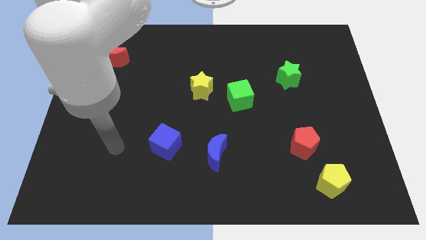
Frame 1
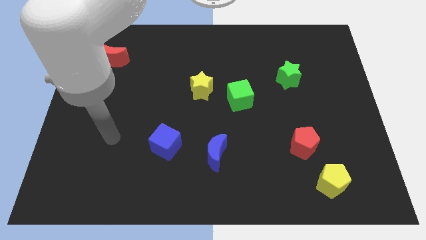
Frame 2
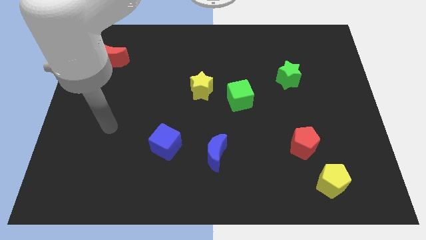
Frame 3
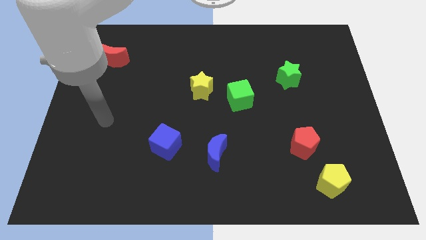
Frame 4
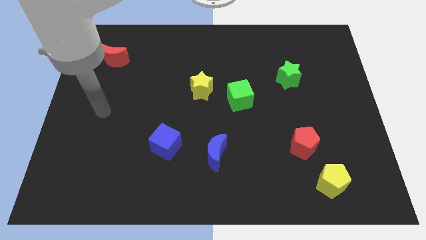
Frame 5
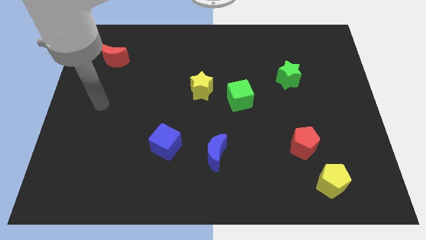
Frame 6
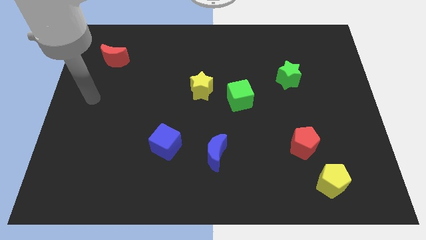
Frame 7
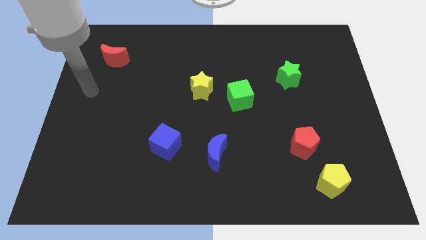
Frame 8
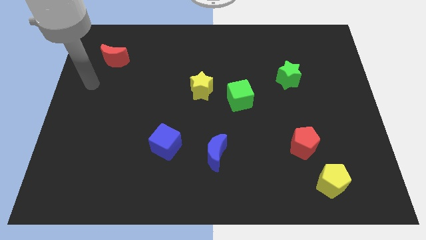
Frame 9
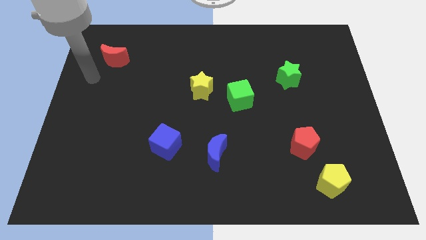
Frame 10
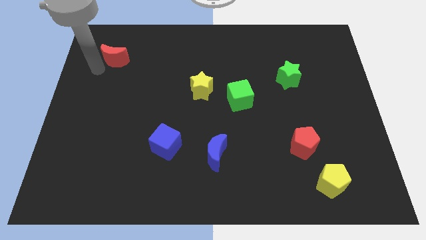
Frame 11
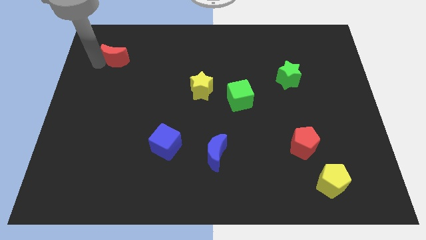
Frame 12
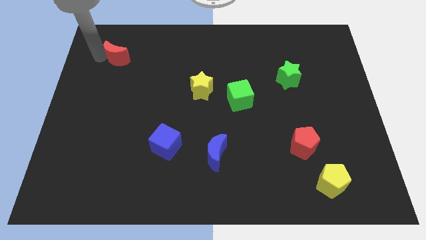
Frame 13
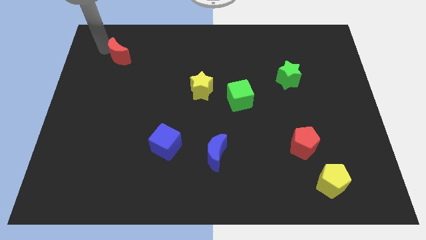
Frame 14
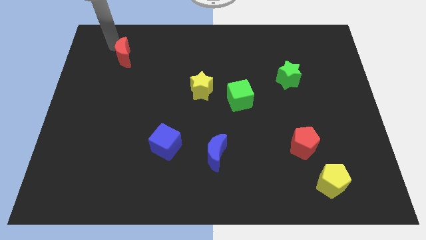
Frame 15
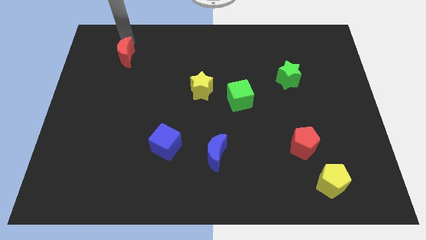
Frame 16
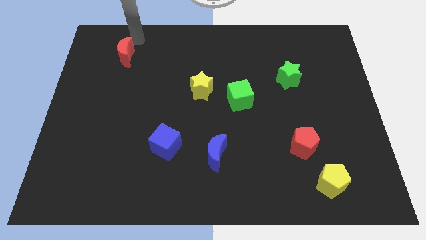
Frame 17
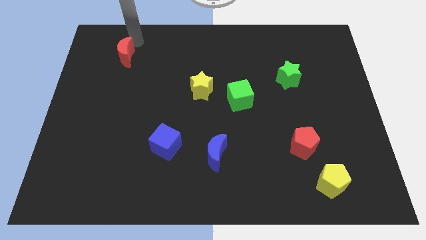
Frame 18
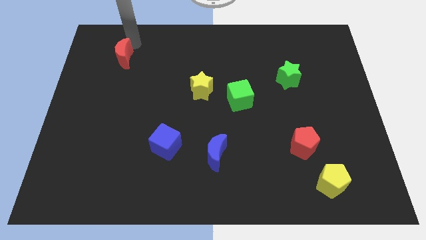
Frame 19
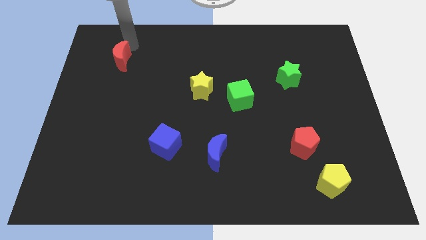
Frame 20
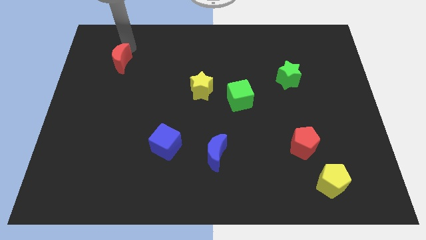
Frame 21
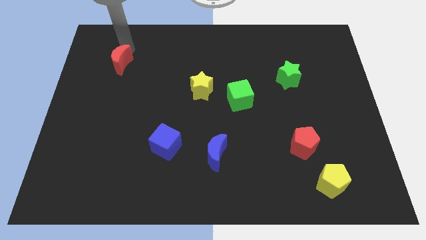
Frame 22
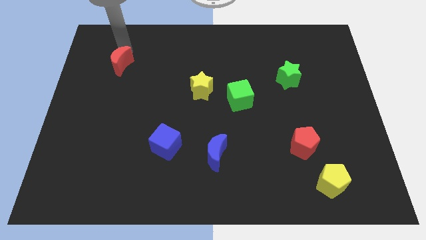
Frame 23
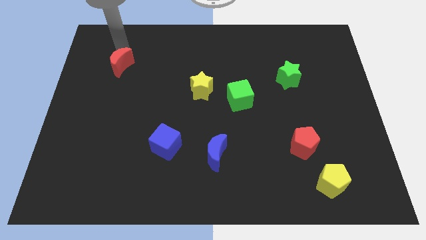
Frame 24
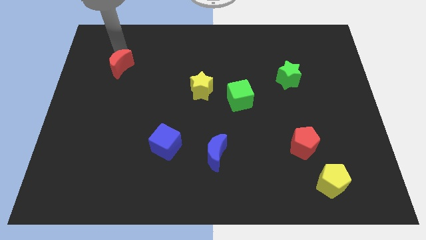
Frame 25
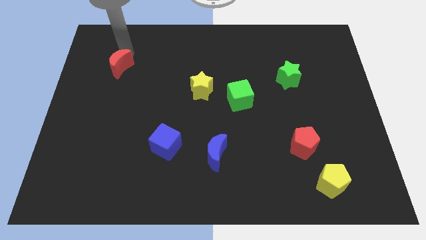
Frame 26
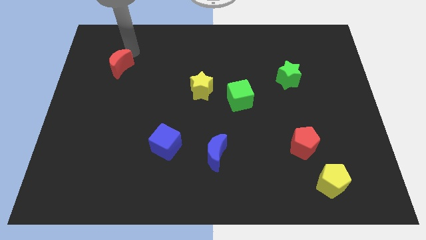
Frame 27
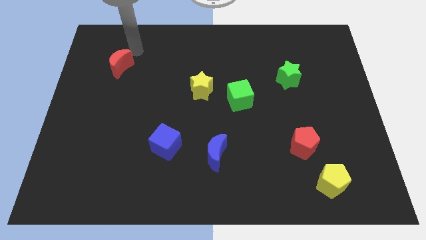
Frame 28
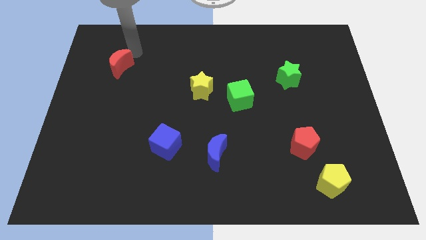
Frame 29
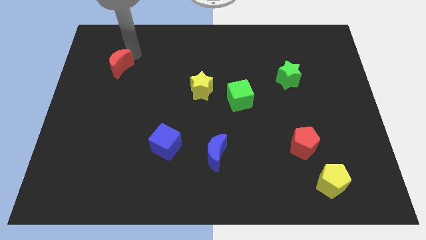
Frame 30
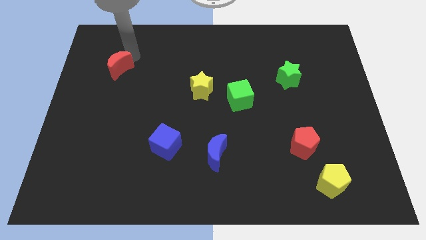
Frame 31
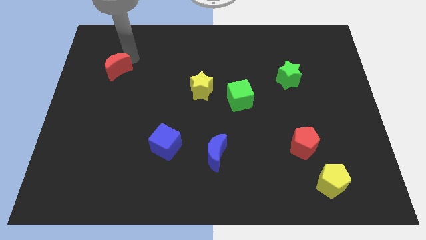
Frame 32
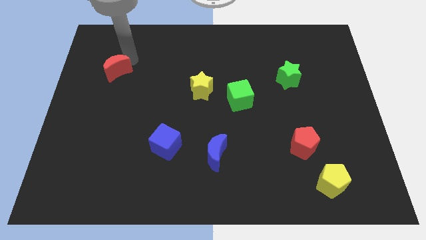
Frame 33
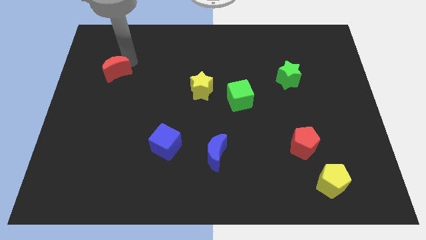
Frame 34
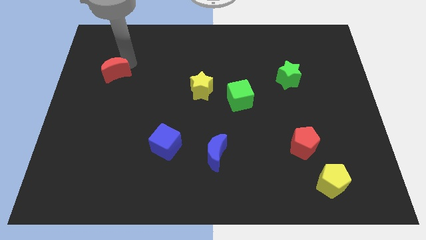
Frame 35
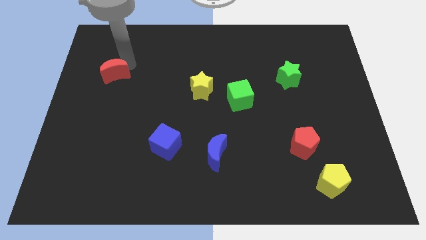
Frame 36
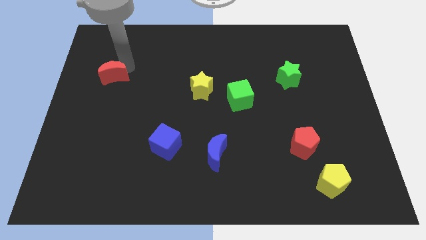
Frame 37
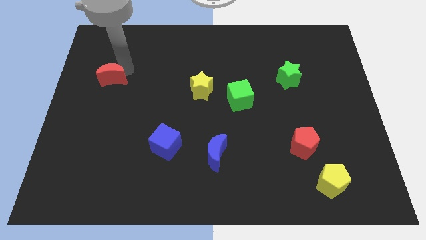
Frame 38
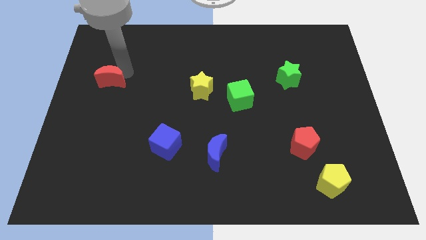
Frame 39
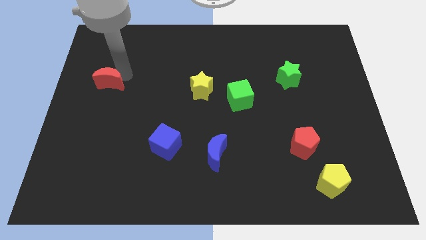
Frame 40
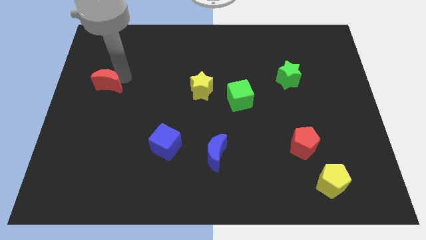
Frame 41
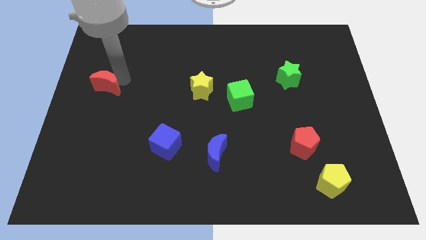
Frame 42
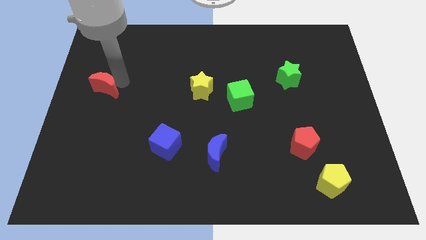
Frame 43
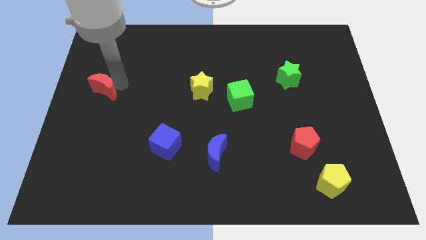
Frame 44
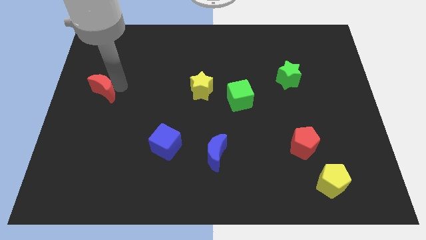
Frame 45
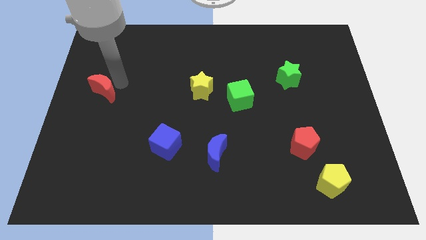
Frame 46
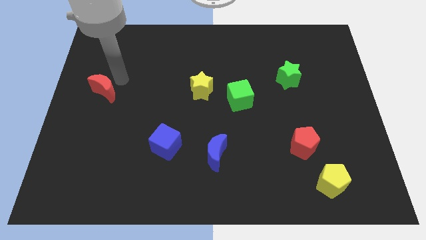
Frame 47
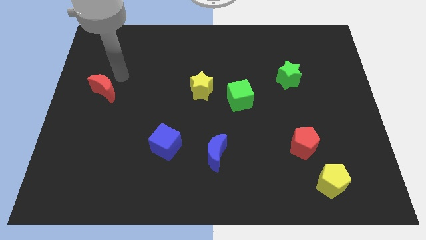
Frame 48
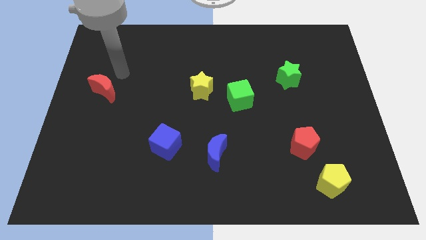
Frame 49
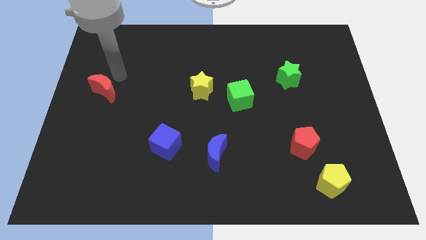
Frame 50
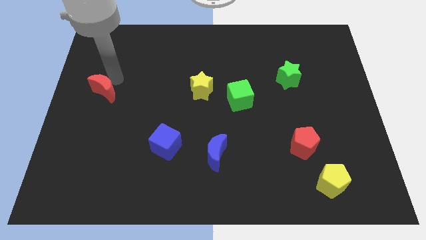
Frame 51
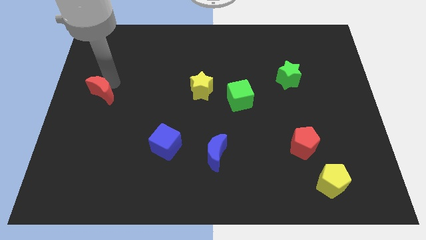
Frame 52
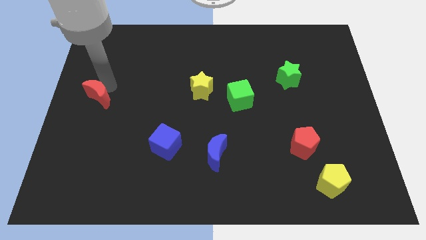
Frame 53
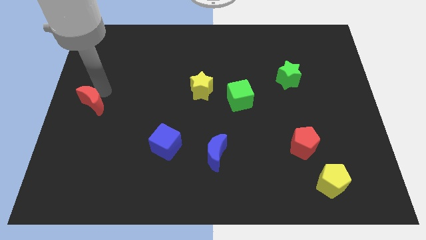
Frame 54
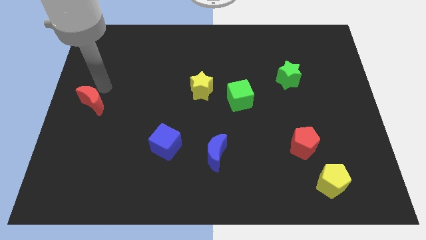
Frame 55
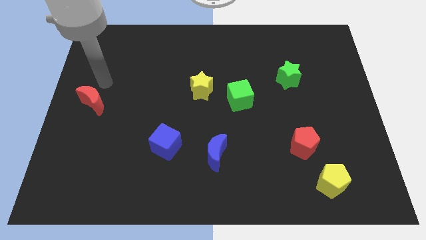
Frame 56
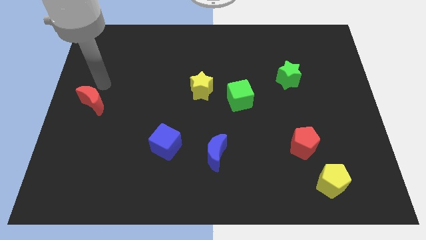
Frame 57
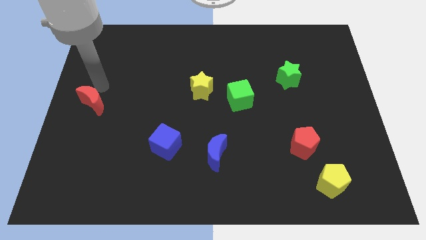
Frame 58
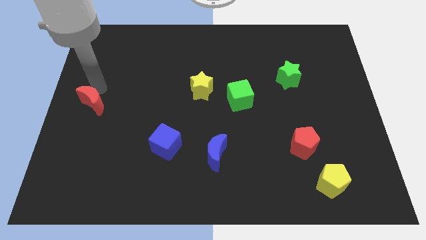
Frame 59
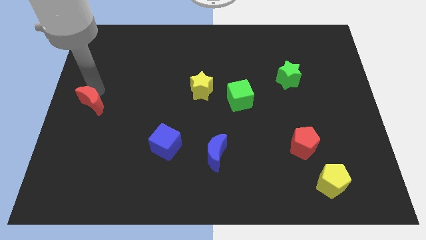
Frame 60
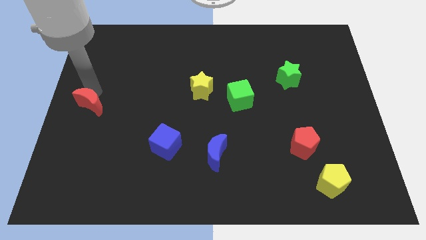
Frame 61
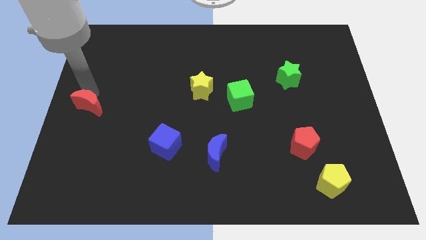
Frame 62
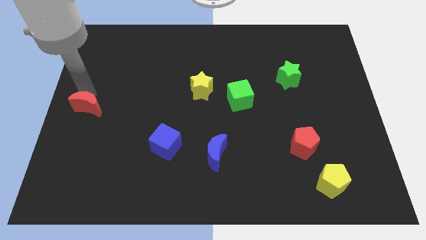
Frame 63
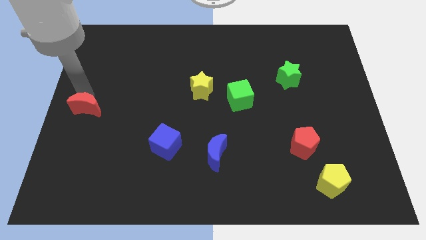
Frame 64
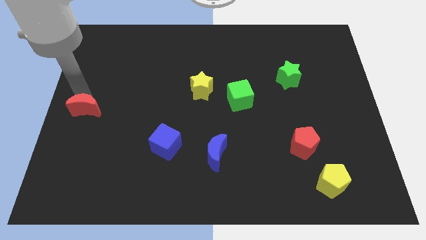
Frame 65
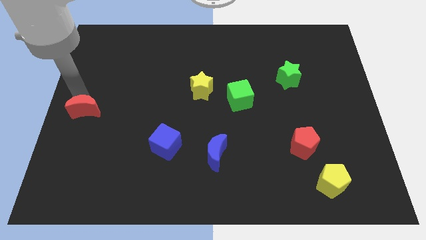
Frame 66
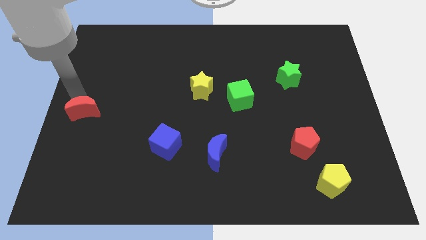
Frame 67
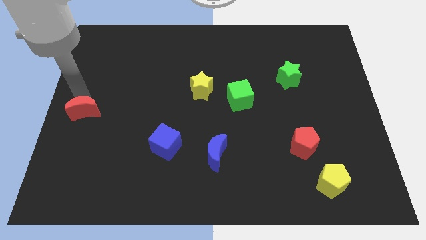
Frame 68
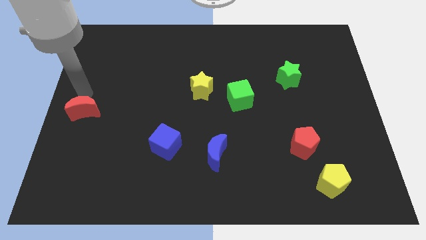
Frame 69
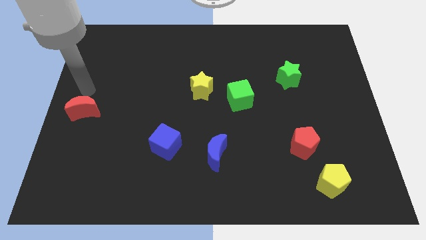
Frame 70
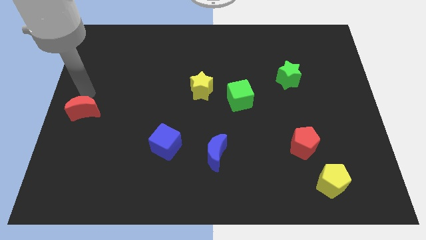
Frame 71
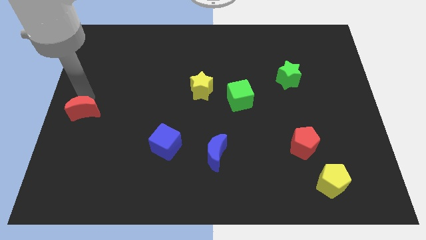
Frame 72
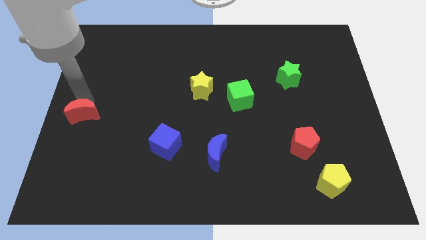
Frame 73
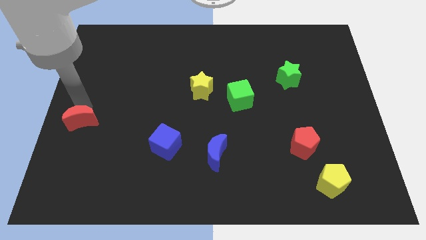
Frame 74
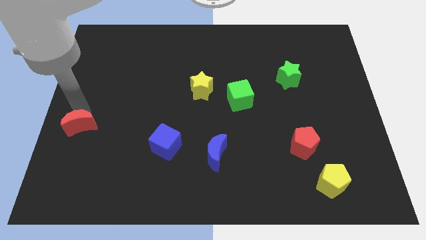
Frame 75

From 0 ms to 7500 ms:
push the red moon down

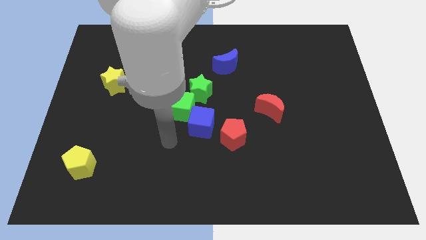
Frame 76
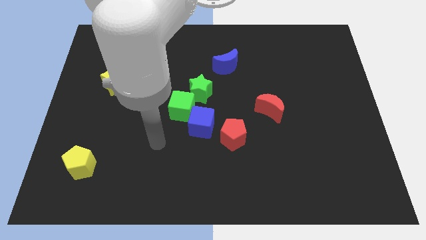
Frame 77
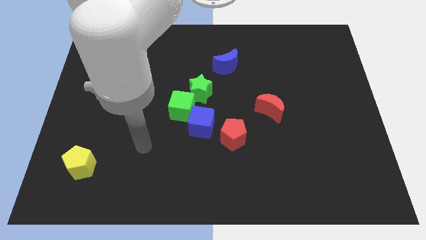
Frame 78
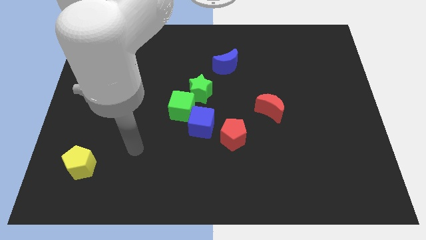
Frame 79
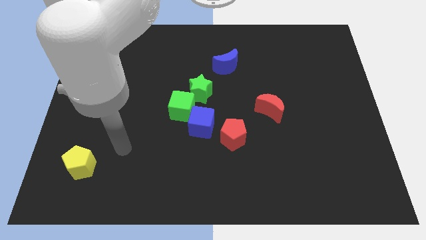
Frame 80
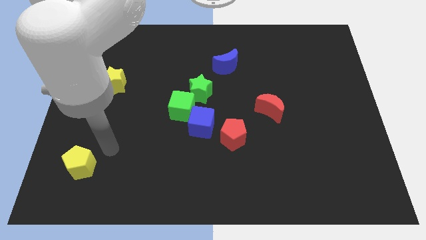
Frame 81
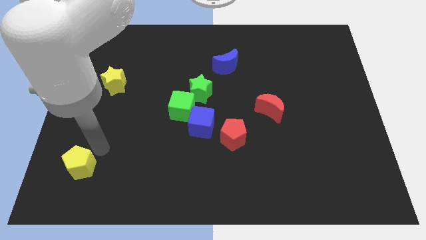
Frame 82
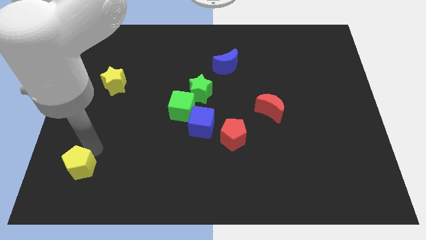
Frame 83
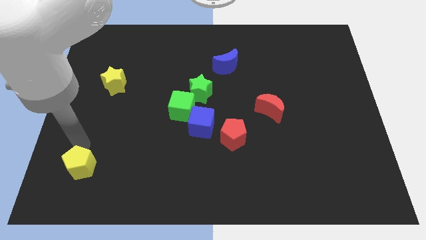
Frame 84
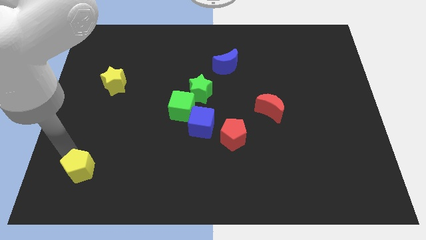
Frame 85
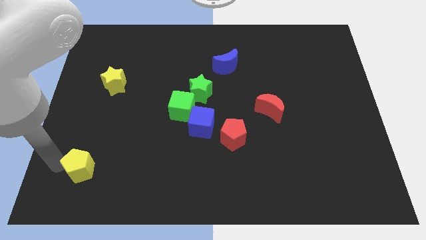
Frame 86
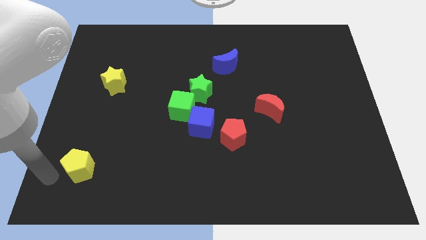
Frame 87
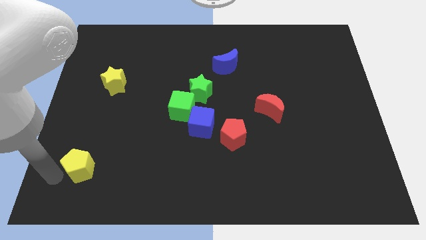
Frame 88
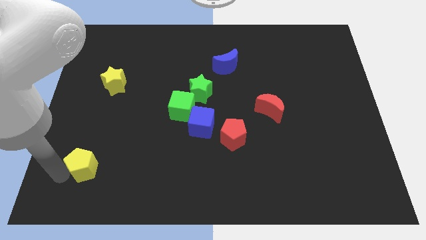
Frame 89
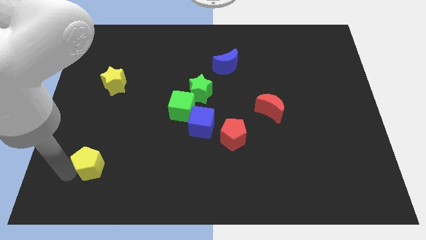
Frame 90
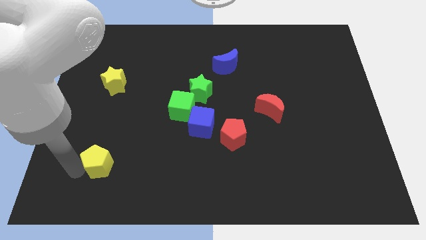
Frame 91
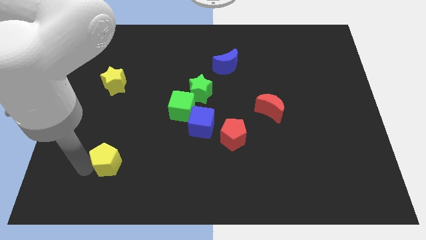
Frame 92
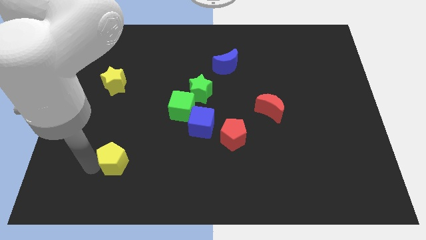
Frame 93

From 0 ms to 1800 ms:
slightly push the yellow pentagon to the right
